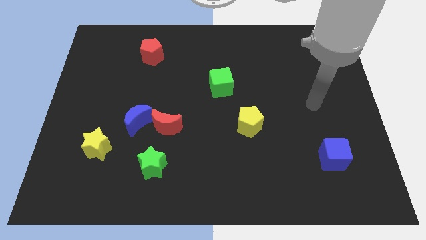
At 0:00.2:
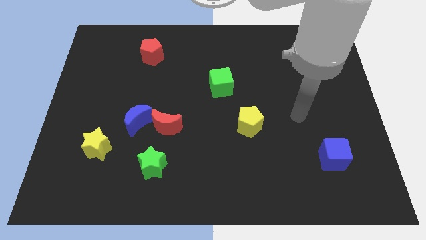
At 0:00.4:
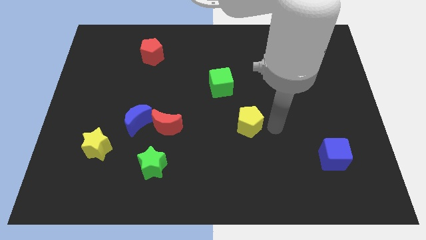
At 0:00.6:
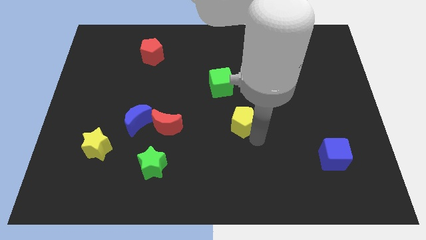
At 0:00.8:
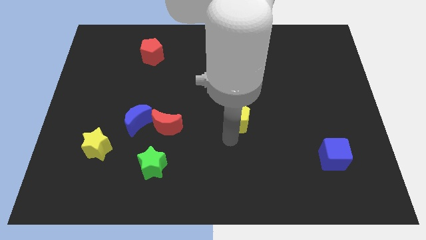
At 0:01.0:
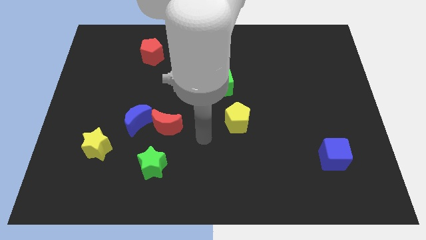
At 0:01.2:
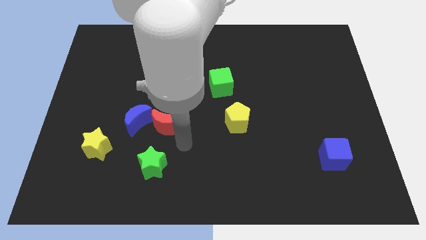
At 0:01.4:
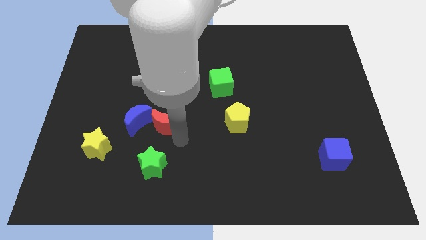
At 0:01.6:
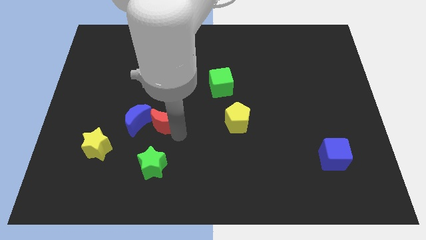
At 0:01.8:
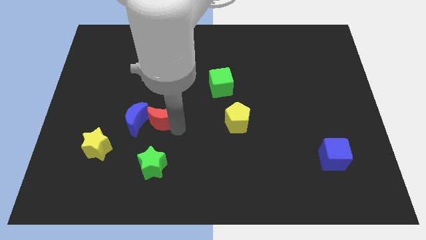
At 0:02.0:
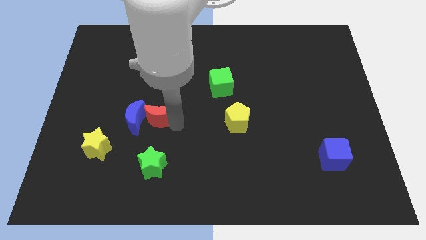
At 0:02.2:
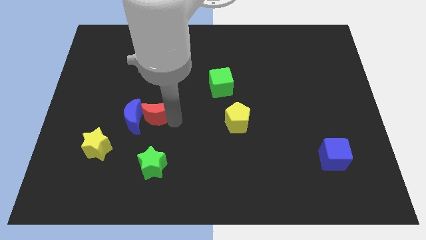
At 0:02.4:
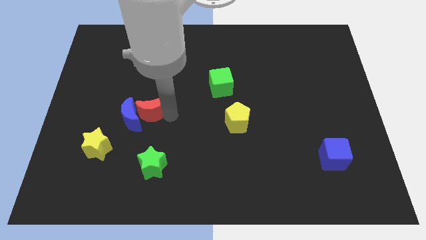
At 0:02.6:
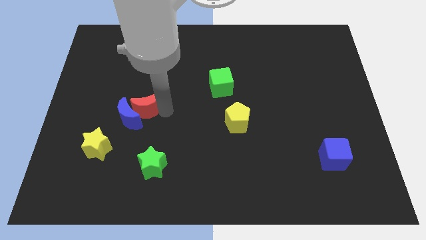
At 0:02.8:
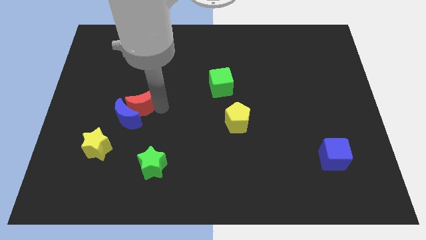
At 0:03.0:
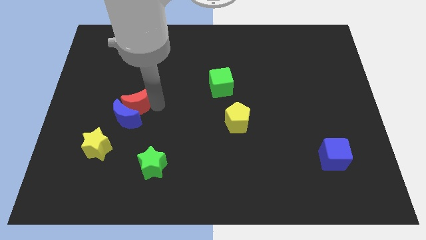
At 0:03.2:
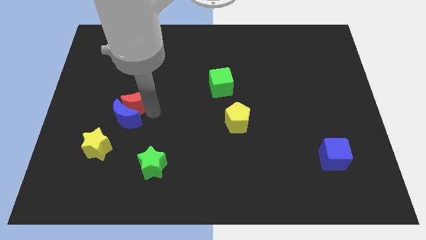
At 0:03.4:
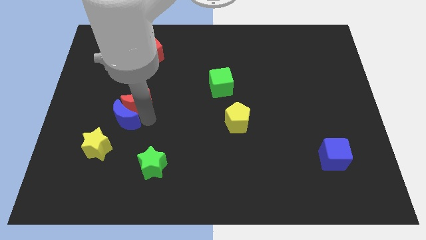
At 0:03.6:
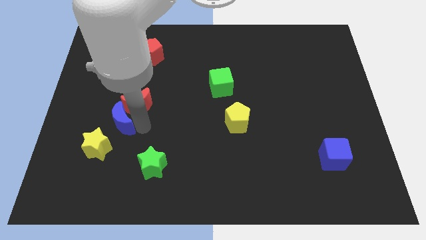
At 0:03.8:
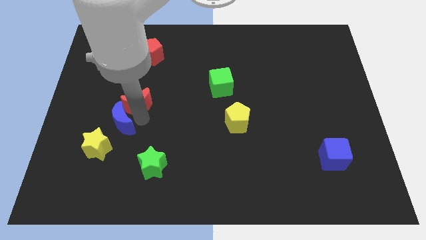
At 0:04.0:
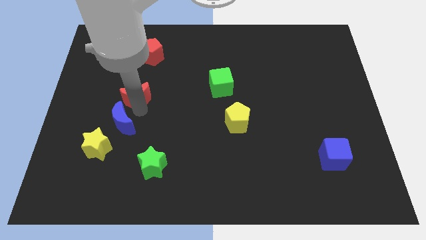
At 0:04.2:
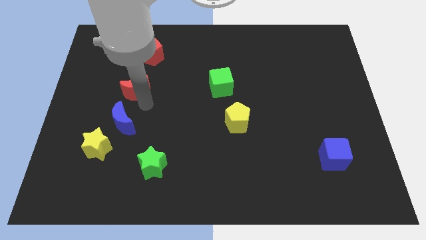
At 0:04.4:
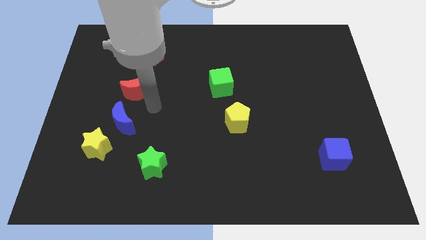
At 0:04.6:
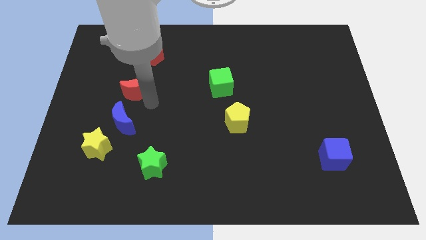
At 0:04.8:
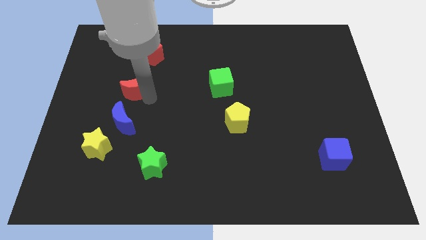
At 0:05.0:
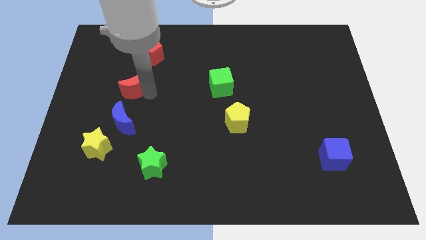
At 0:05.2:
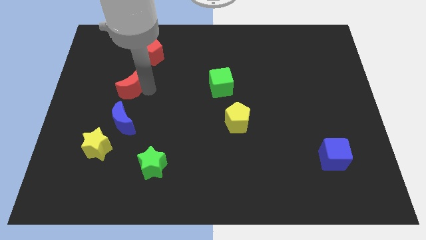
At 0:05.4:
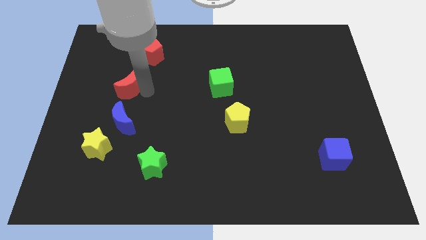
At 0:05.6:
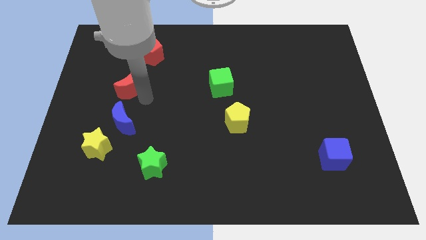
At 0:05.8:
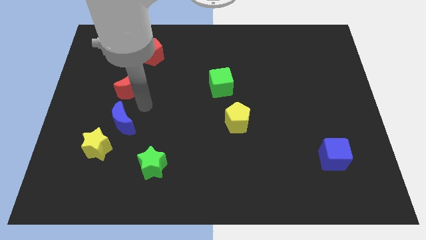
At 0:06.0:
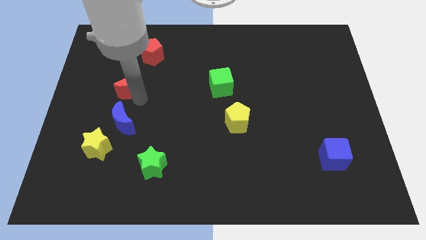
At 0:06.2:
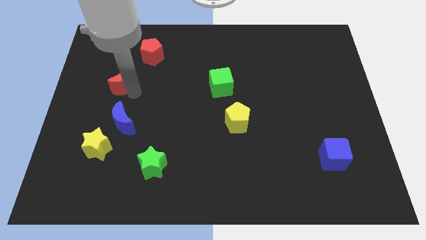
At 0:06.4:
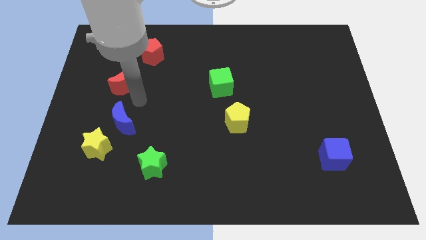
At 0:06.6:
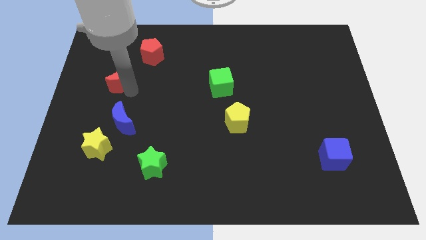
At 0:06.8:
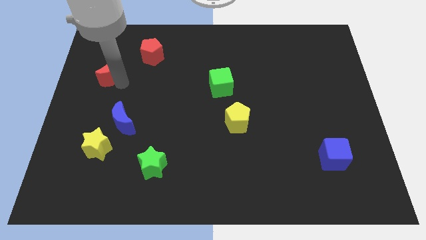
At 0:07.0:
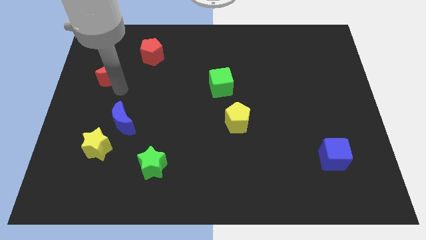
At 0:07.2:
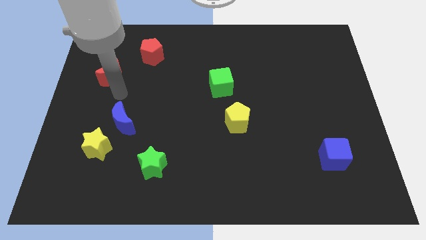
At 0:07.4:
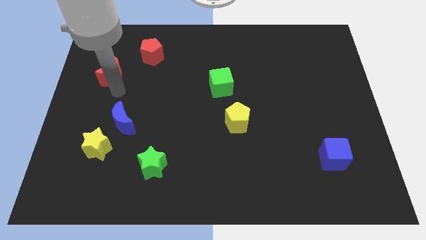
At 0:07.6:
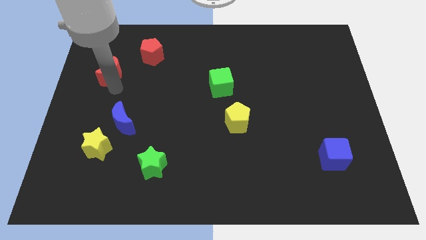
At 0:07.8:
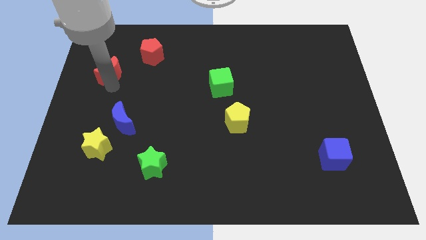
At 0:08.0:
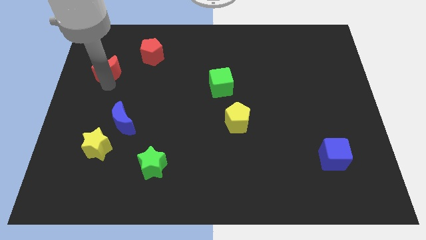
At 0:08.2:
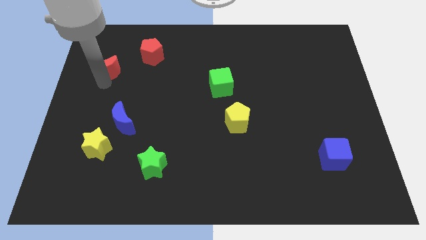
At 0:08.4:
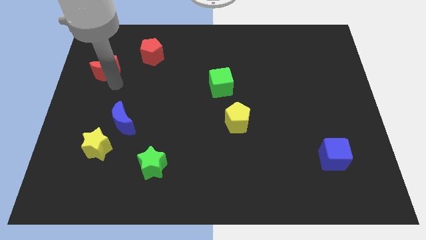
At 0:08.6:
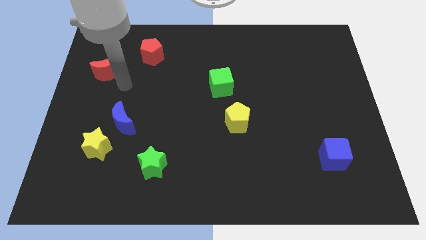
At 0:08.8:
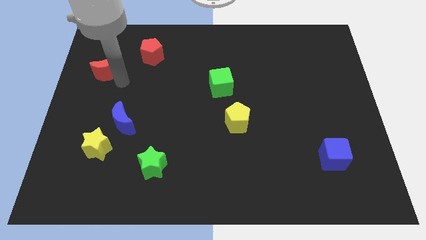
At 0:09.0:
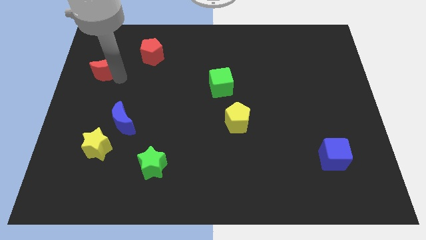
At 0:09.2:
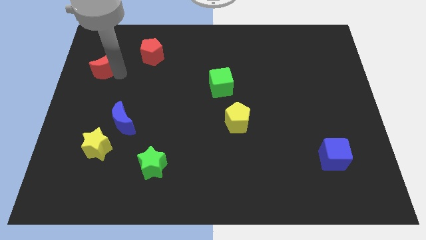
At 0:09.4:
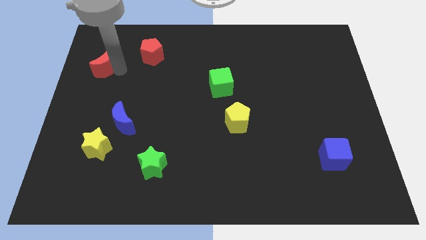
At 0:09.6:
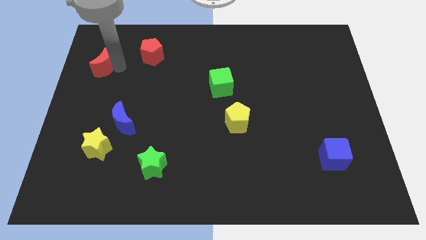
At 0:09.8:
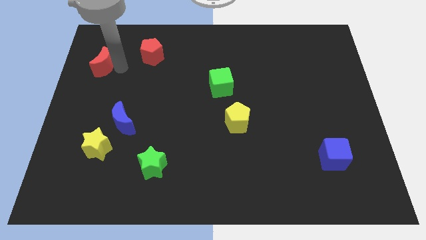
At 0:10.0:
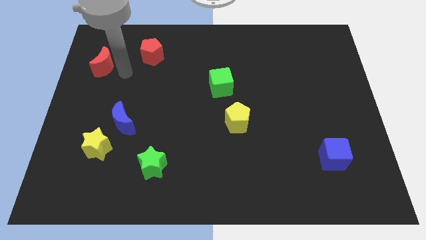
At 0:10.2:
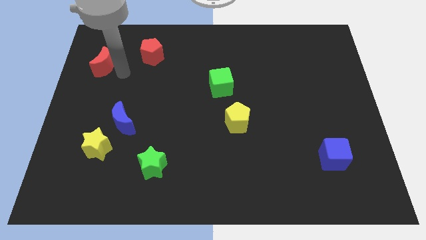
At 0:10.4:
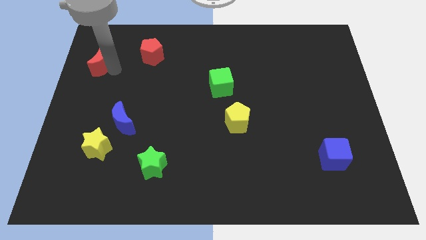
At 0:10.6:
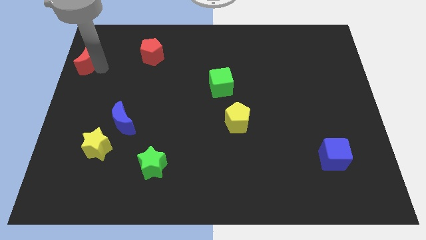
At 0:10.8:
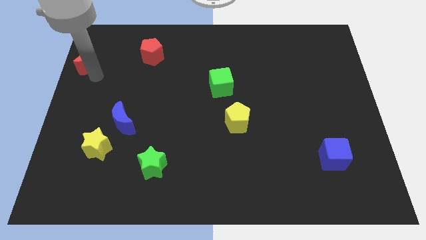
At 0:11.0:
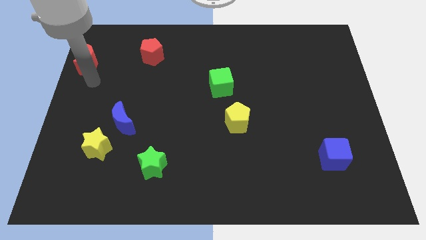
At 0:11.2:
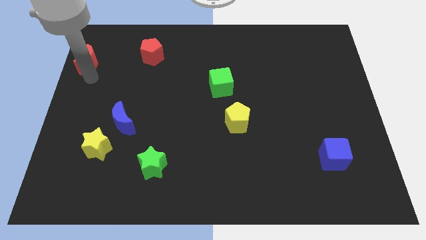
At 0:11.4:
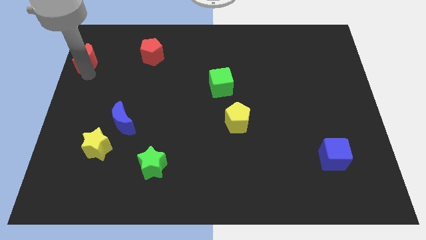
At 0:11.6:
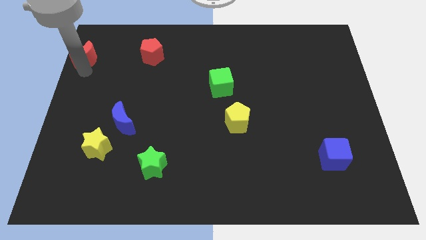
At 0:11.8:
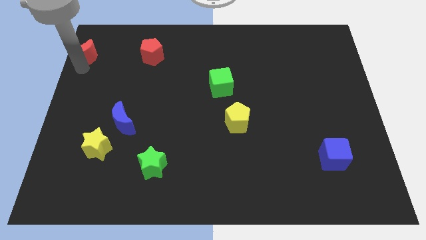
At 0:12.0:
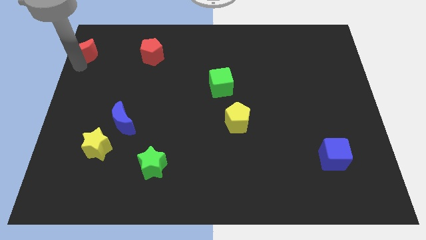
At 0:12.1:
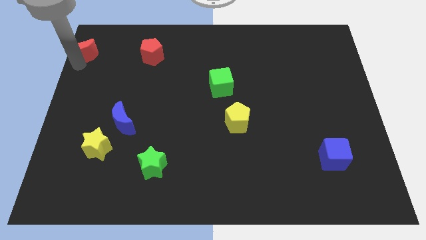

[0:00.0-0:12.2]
move the red moon to the upper left corner
